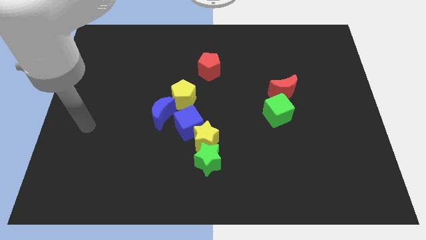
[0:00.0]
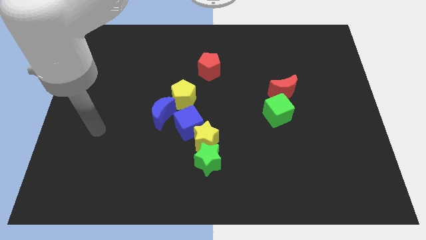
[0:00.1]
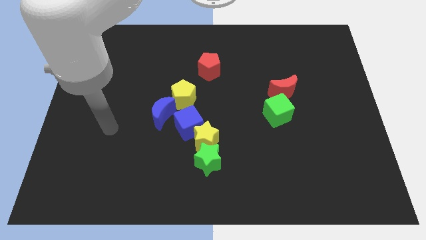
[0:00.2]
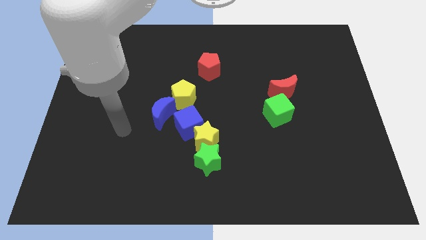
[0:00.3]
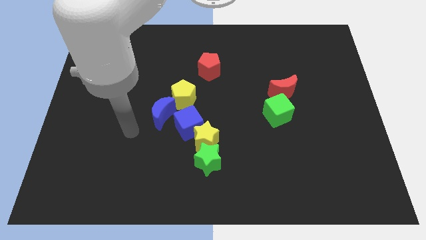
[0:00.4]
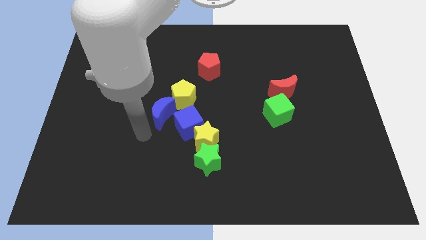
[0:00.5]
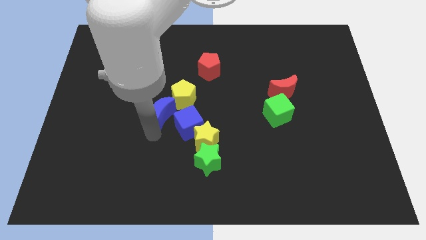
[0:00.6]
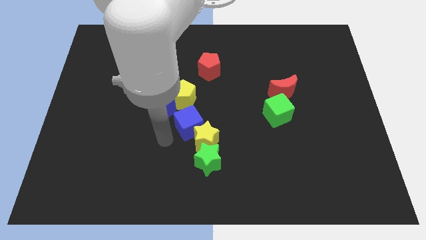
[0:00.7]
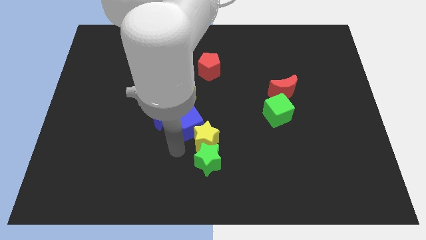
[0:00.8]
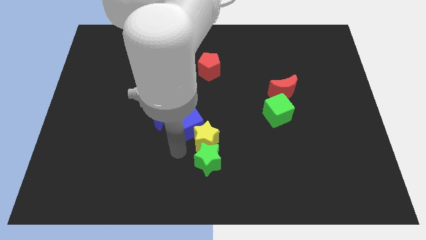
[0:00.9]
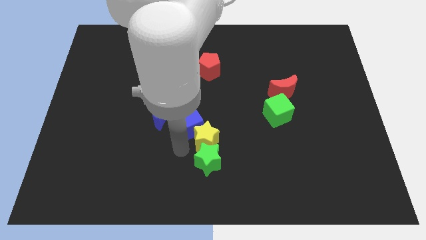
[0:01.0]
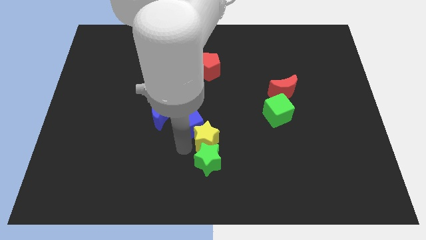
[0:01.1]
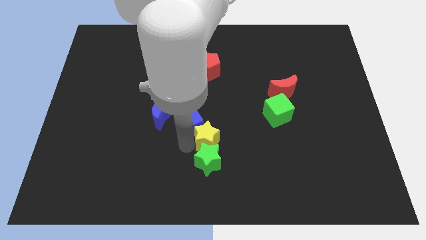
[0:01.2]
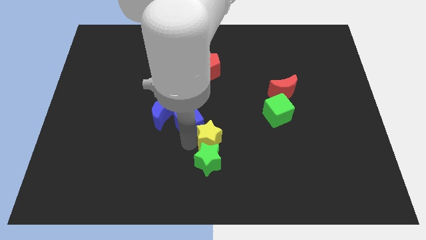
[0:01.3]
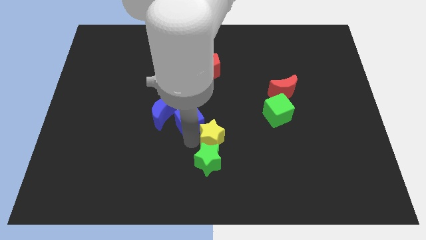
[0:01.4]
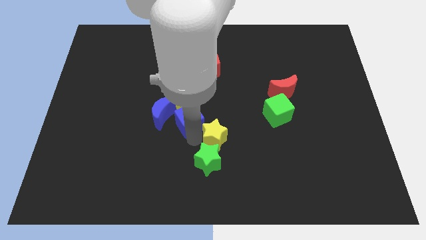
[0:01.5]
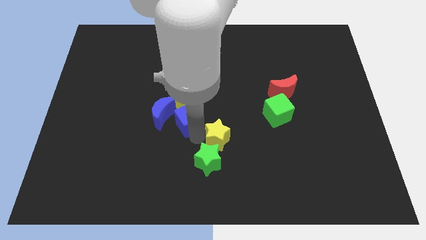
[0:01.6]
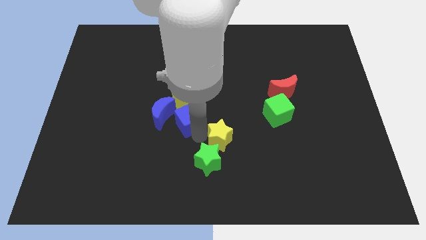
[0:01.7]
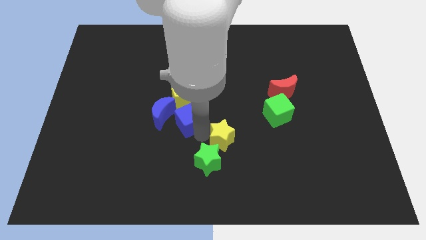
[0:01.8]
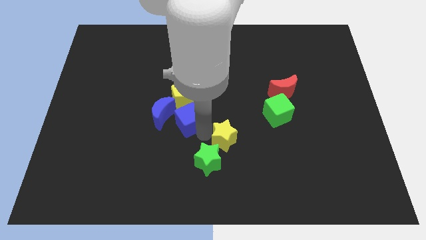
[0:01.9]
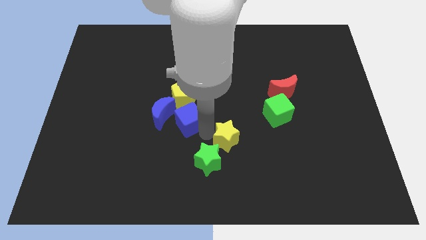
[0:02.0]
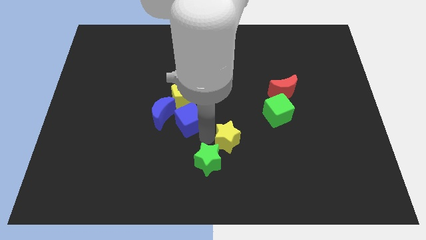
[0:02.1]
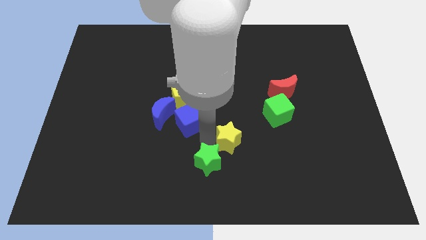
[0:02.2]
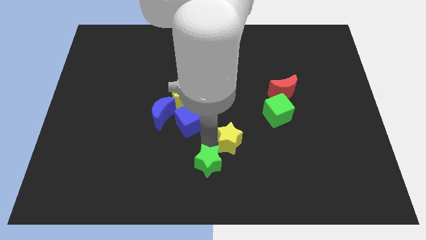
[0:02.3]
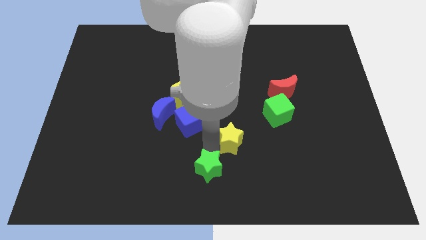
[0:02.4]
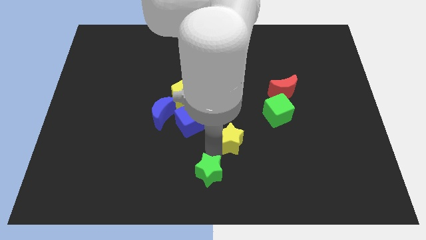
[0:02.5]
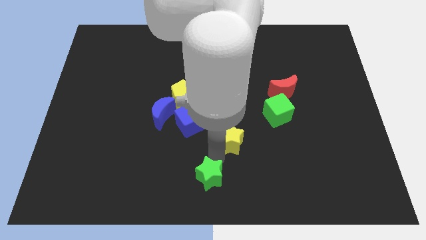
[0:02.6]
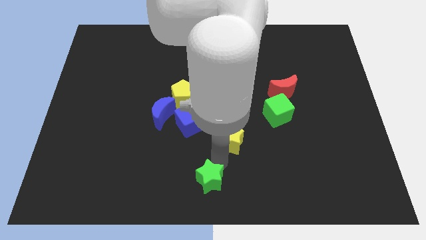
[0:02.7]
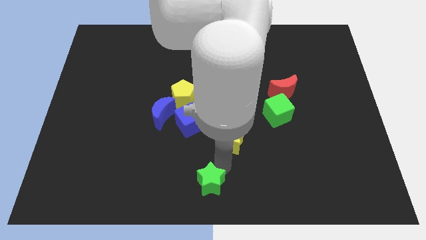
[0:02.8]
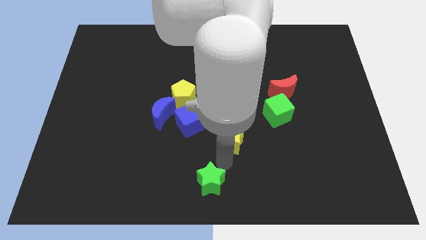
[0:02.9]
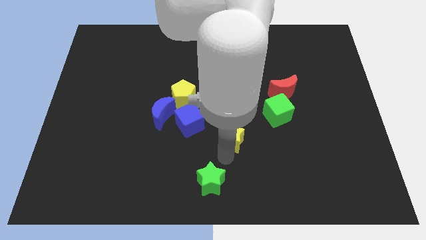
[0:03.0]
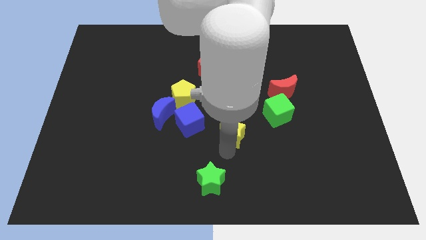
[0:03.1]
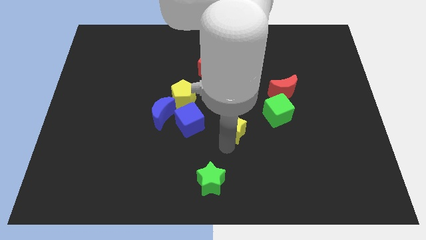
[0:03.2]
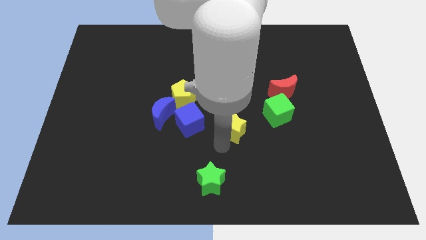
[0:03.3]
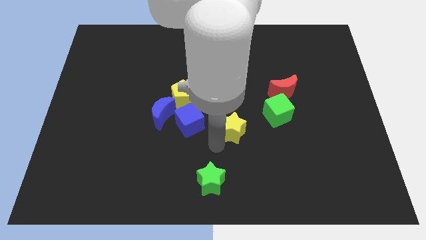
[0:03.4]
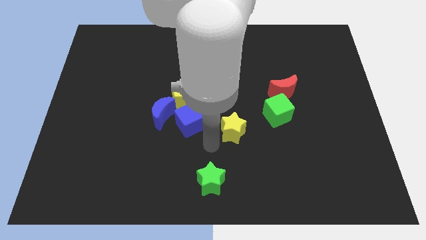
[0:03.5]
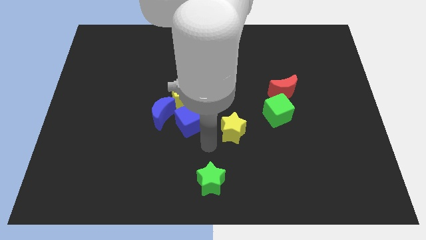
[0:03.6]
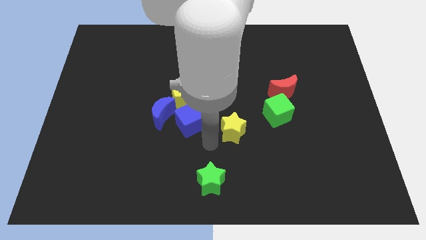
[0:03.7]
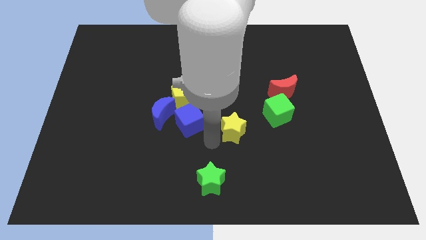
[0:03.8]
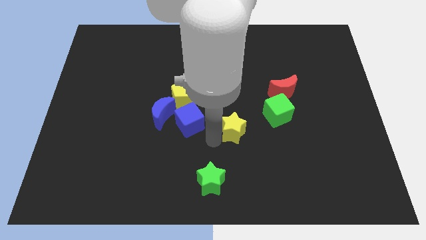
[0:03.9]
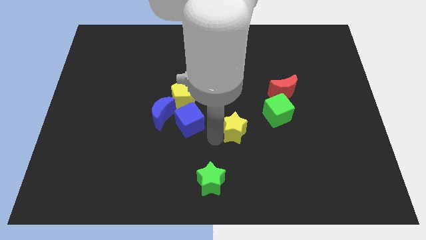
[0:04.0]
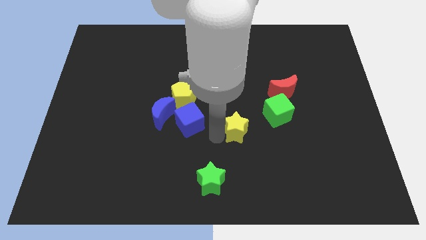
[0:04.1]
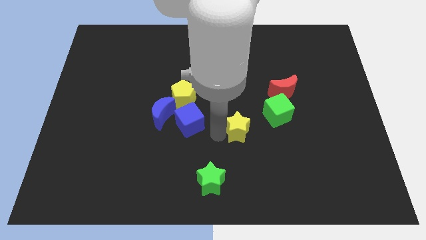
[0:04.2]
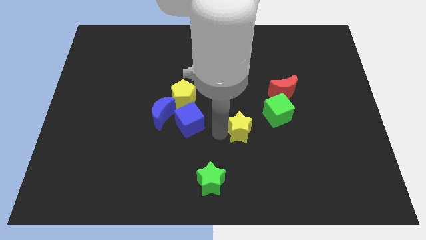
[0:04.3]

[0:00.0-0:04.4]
separate the yellow star from the blue cube and green star

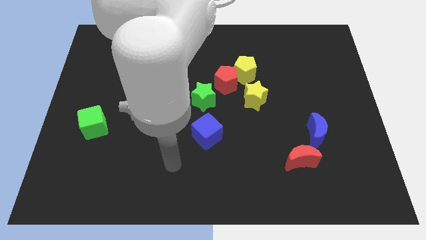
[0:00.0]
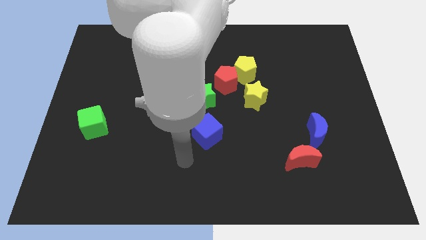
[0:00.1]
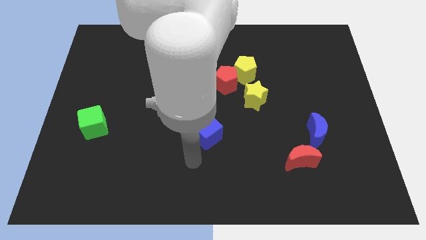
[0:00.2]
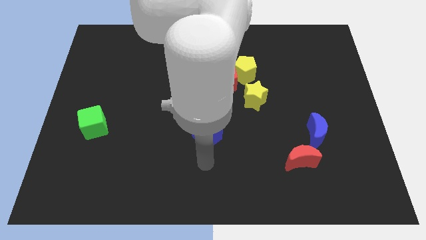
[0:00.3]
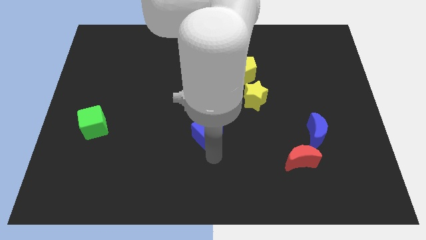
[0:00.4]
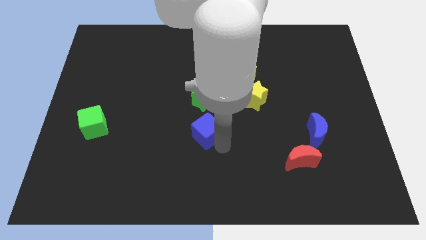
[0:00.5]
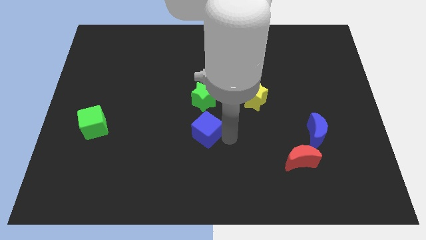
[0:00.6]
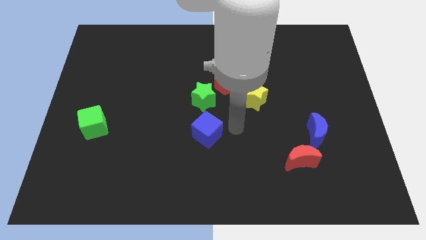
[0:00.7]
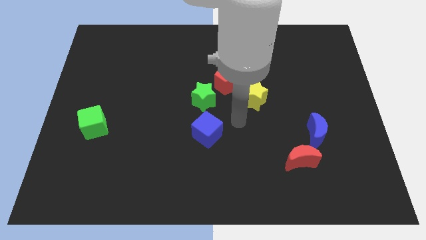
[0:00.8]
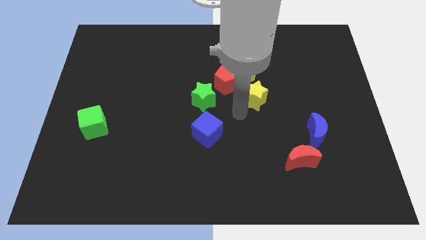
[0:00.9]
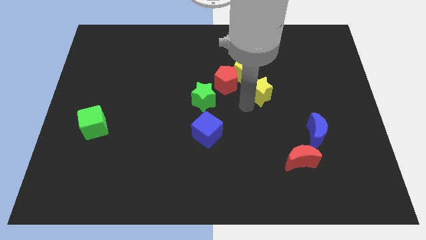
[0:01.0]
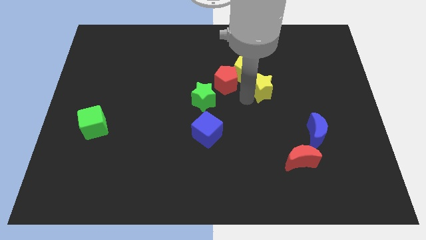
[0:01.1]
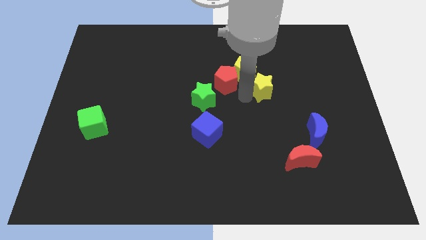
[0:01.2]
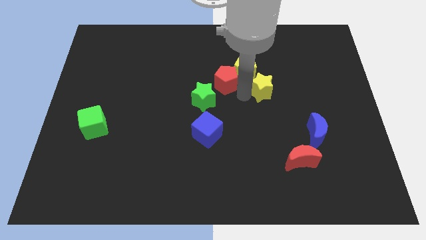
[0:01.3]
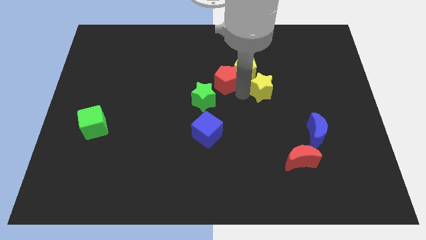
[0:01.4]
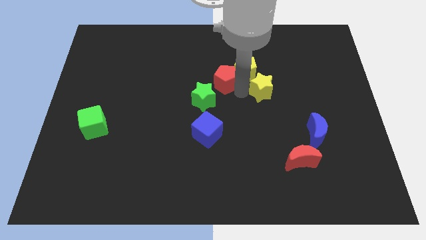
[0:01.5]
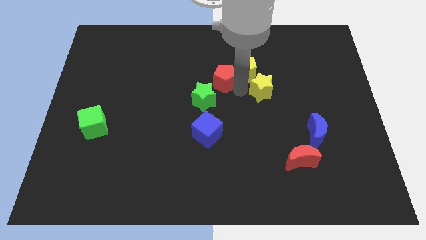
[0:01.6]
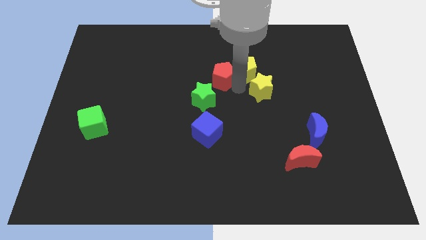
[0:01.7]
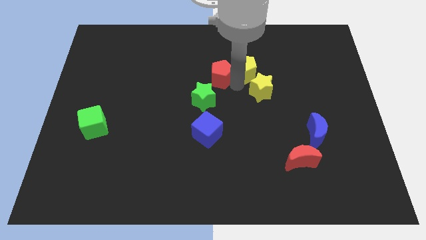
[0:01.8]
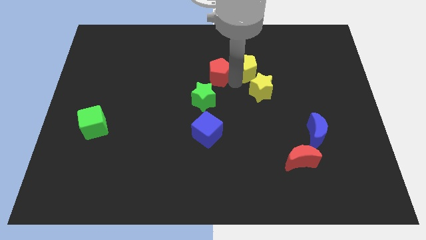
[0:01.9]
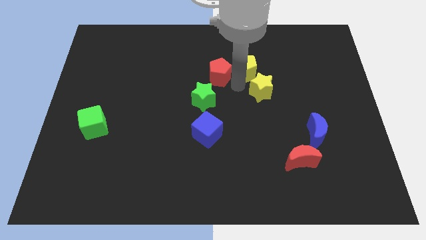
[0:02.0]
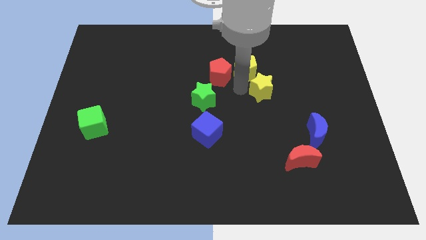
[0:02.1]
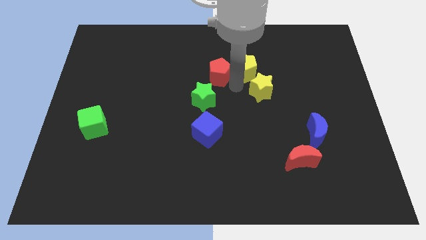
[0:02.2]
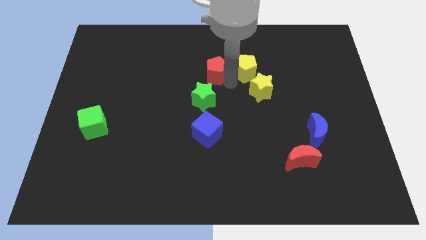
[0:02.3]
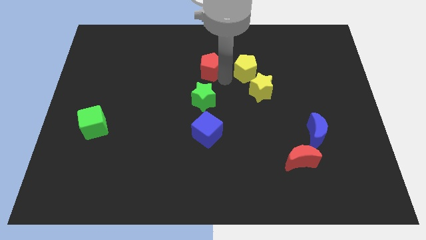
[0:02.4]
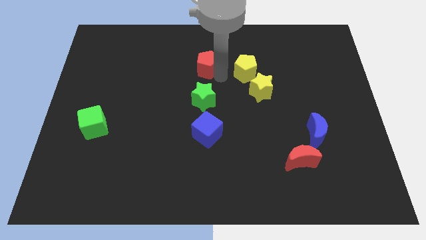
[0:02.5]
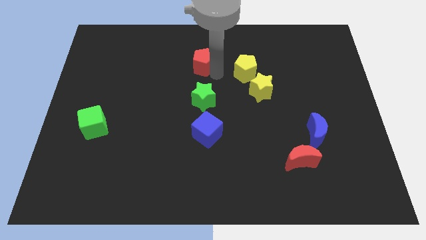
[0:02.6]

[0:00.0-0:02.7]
pull the red pentagon apart from the yellow pentagon, green star, and yellow star

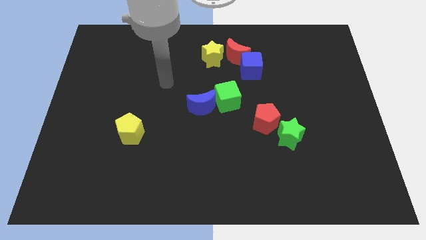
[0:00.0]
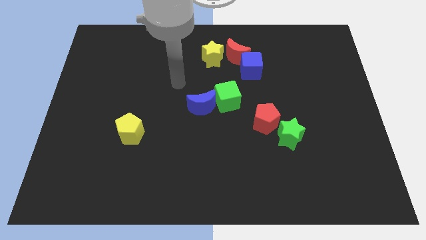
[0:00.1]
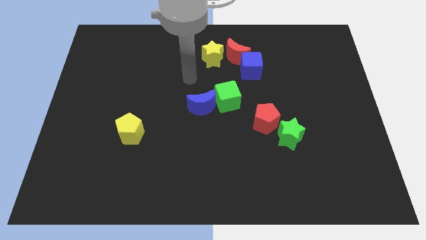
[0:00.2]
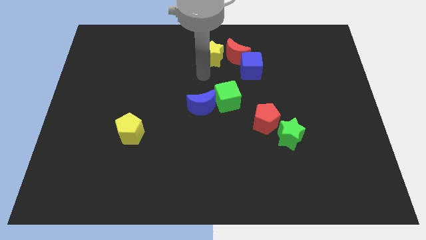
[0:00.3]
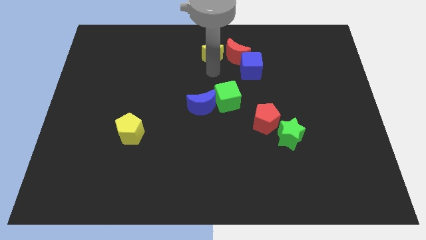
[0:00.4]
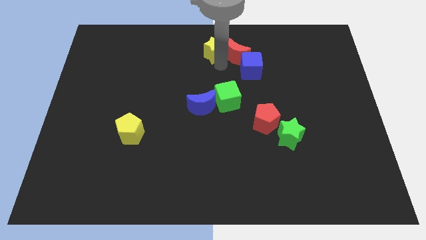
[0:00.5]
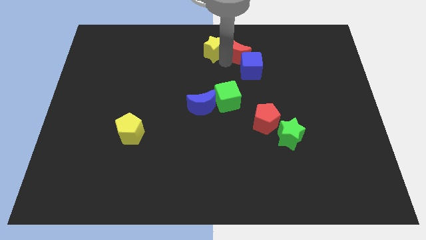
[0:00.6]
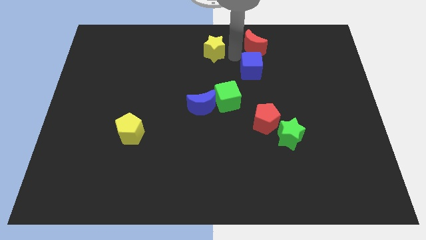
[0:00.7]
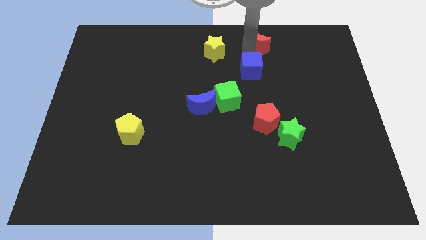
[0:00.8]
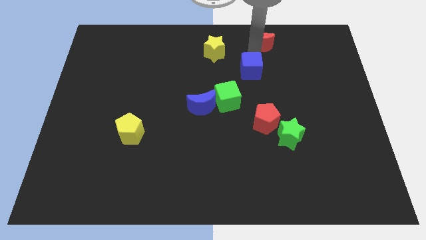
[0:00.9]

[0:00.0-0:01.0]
pull the blue cube apart from the red moon

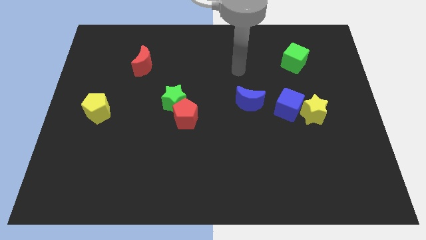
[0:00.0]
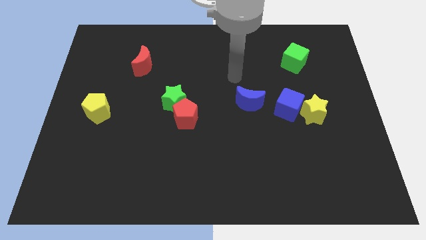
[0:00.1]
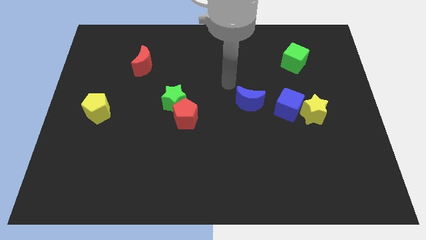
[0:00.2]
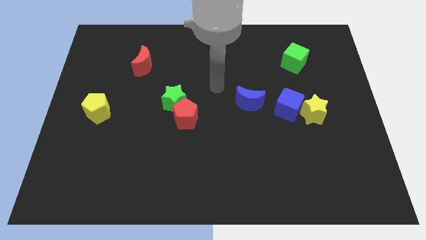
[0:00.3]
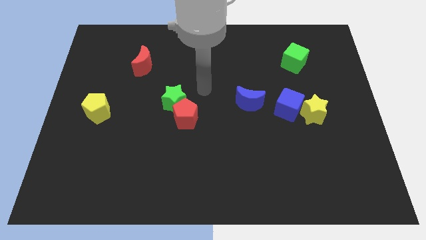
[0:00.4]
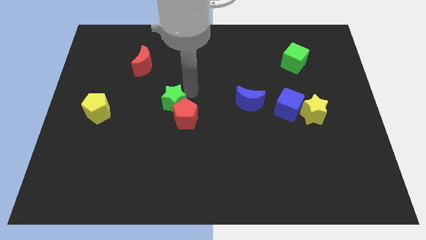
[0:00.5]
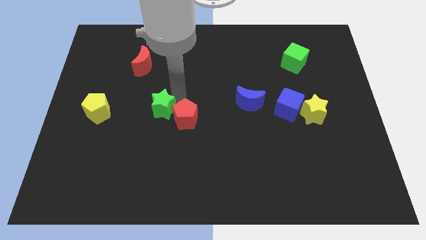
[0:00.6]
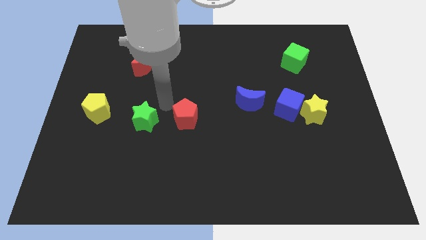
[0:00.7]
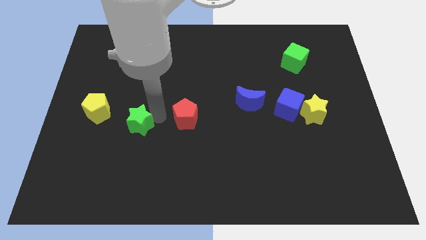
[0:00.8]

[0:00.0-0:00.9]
pull the red pentagon apart from the green star

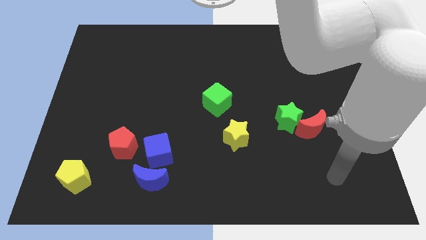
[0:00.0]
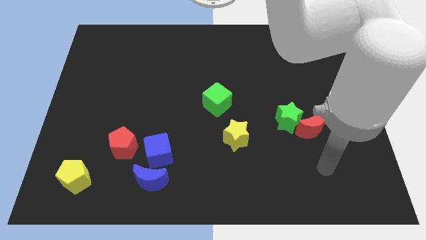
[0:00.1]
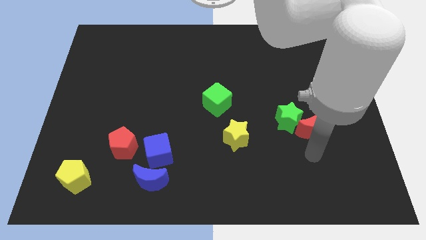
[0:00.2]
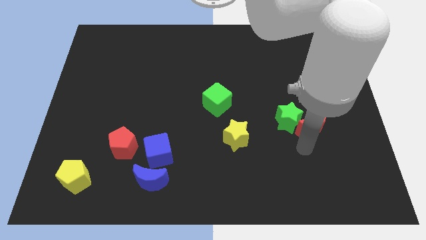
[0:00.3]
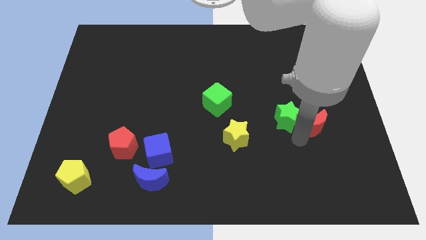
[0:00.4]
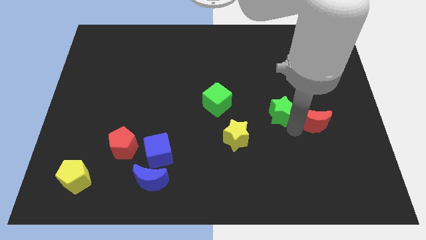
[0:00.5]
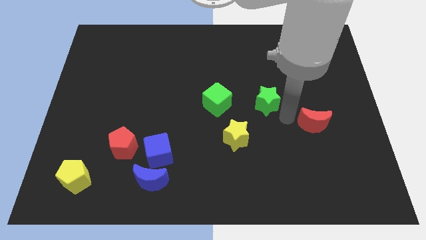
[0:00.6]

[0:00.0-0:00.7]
separate the red moon from the green star
